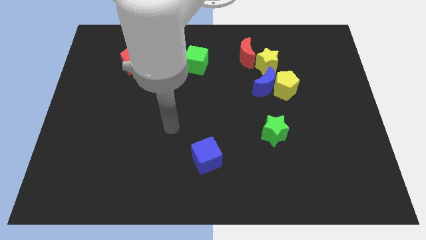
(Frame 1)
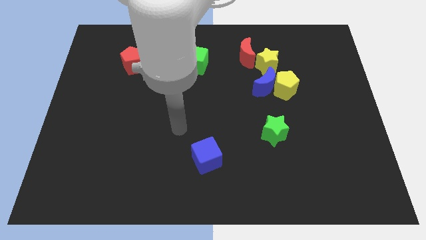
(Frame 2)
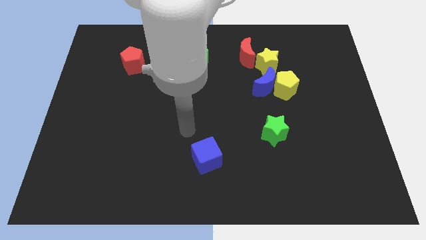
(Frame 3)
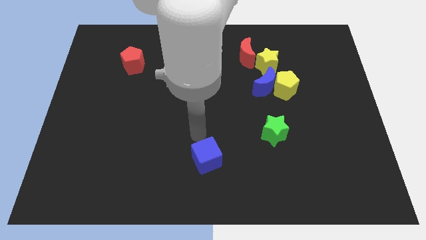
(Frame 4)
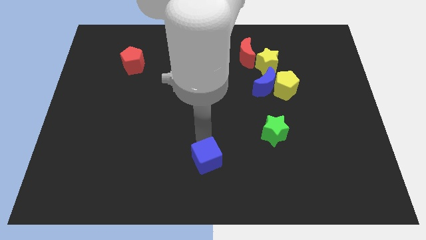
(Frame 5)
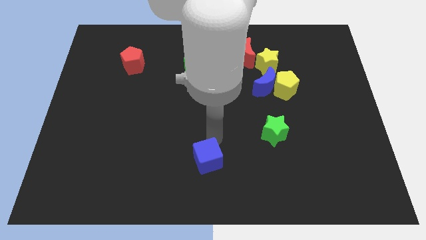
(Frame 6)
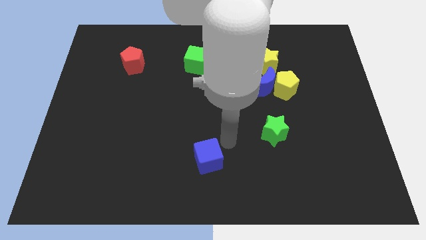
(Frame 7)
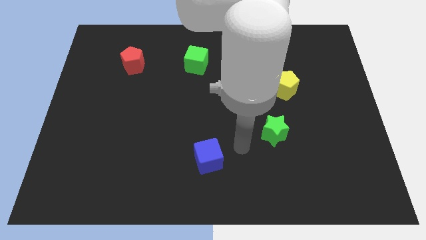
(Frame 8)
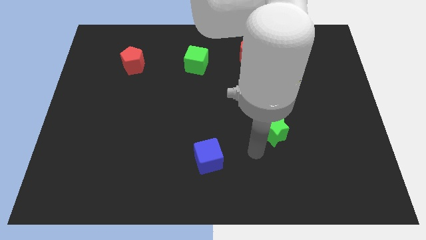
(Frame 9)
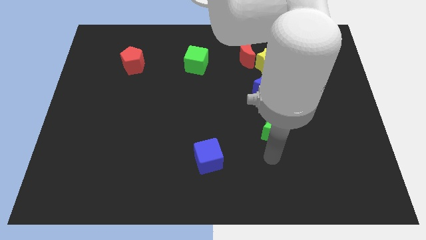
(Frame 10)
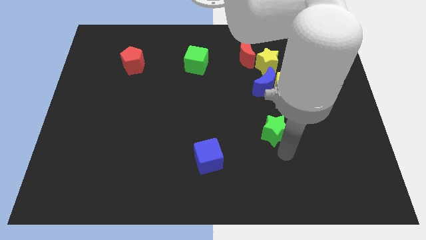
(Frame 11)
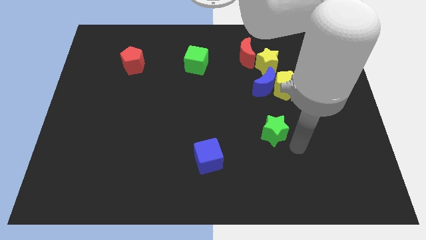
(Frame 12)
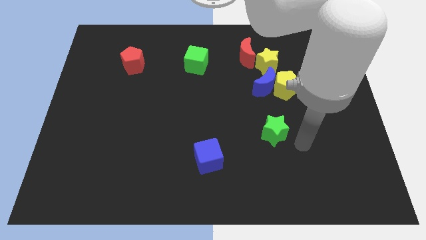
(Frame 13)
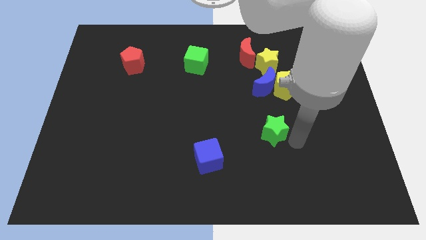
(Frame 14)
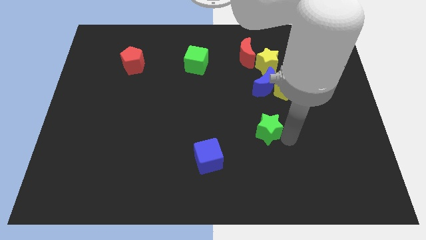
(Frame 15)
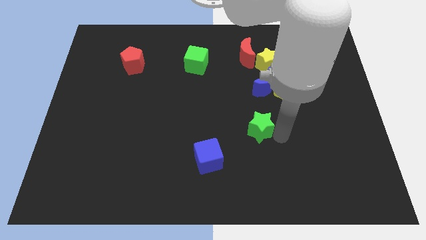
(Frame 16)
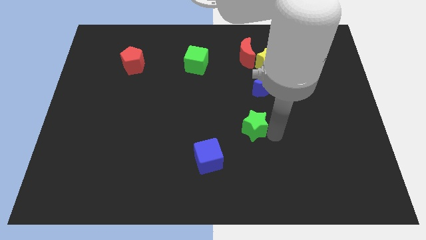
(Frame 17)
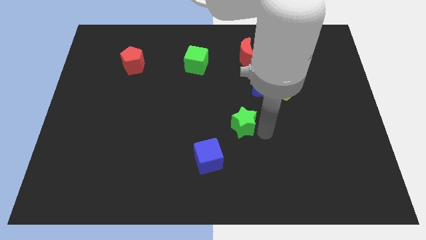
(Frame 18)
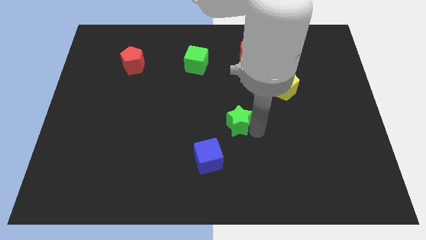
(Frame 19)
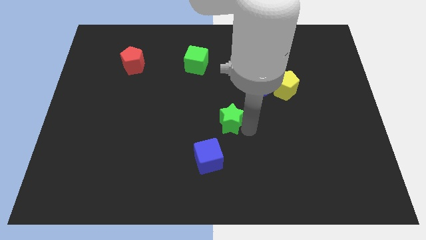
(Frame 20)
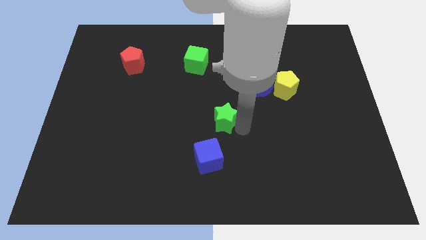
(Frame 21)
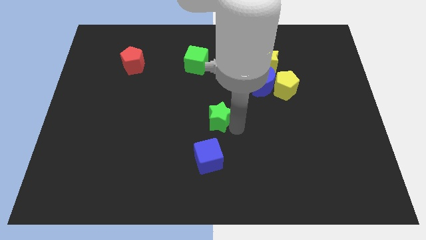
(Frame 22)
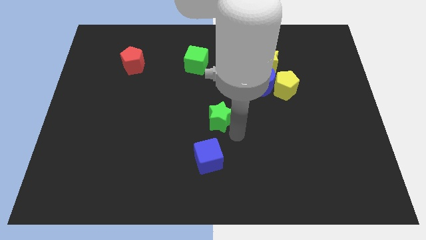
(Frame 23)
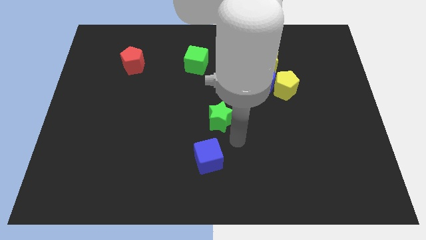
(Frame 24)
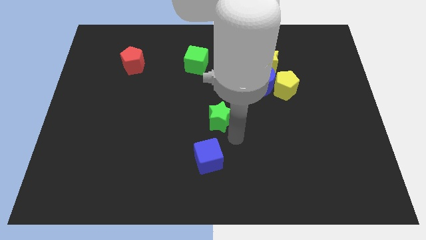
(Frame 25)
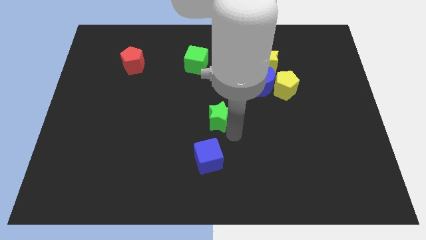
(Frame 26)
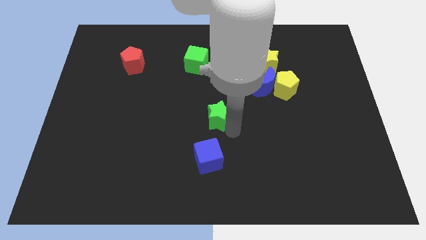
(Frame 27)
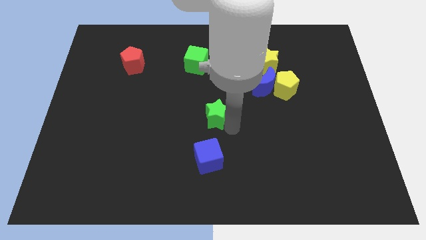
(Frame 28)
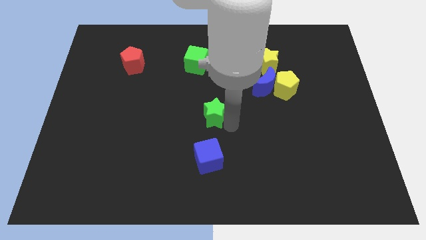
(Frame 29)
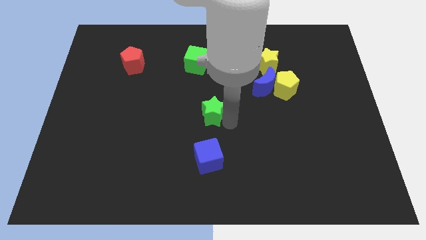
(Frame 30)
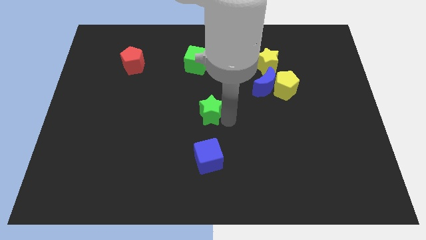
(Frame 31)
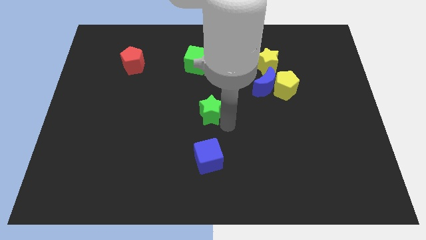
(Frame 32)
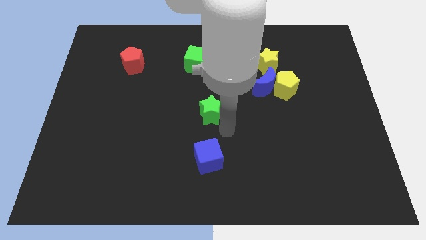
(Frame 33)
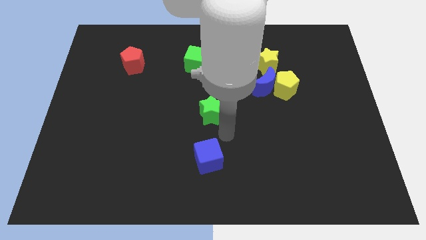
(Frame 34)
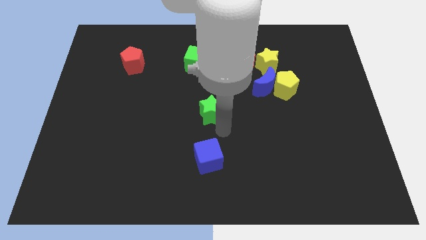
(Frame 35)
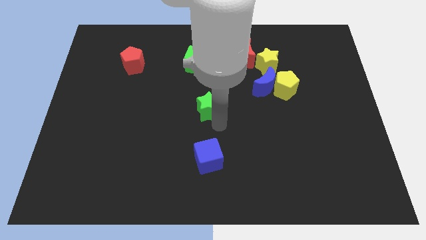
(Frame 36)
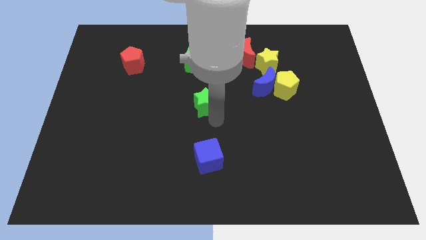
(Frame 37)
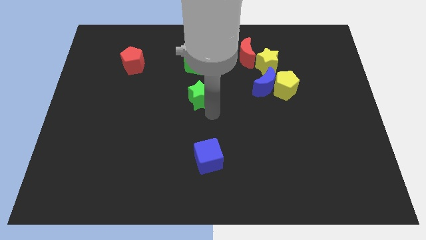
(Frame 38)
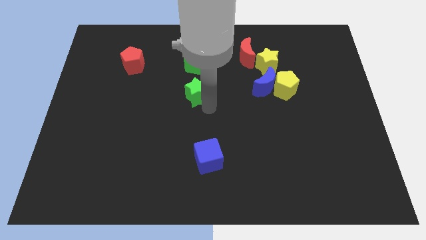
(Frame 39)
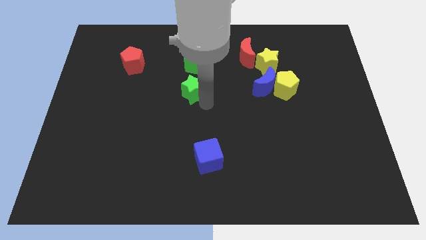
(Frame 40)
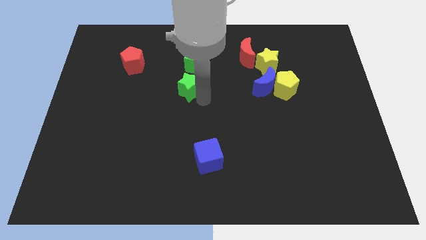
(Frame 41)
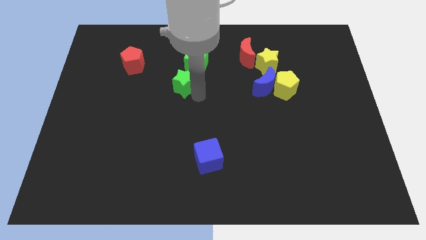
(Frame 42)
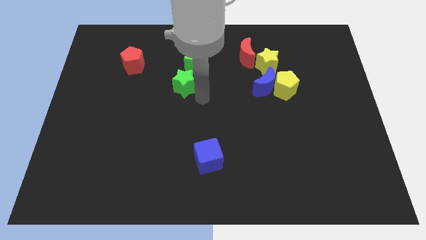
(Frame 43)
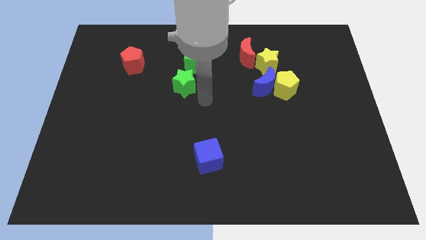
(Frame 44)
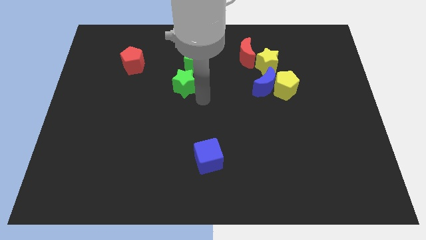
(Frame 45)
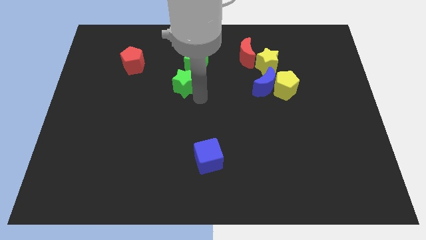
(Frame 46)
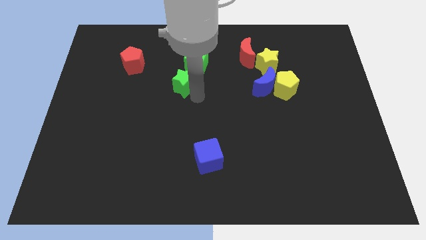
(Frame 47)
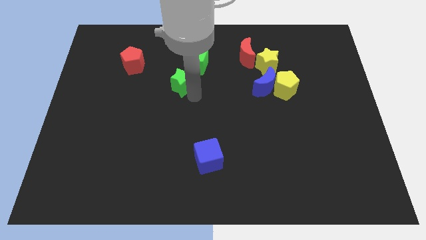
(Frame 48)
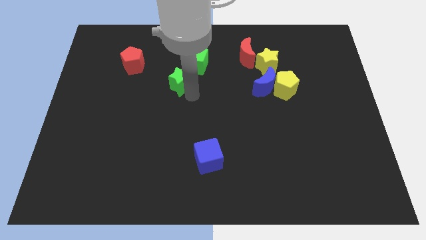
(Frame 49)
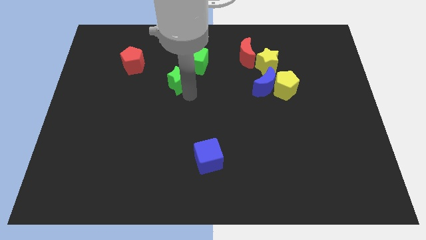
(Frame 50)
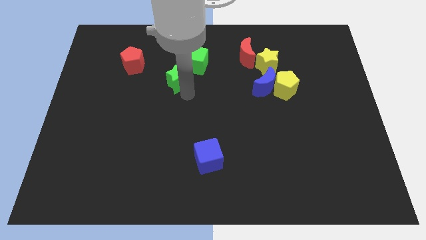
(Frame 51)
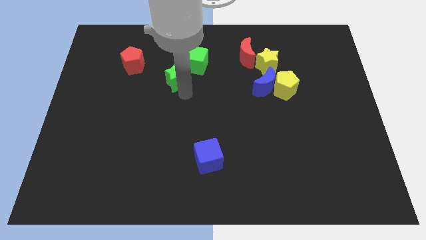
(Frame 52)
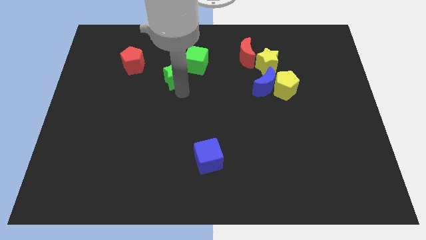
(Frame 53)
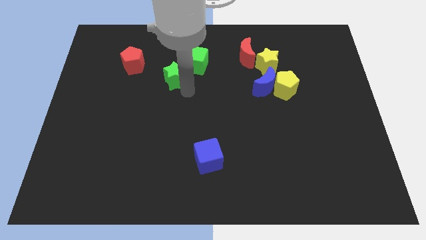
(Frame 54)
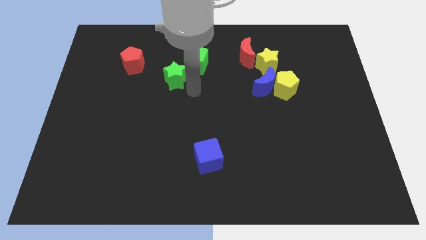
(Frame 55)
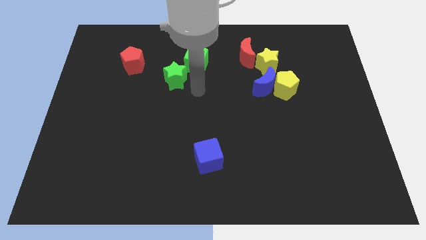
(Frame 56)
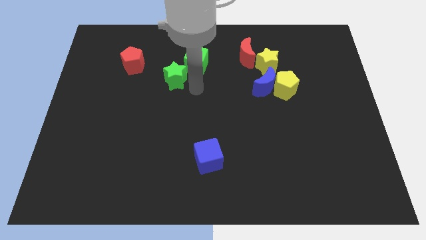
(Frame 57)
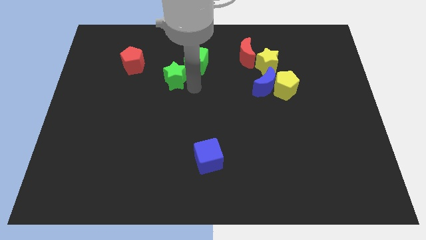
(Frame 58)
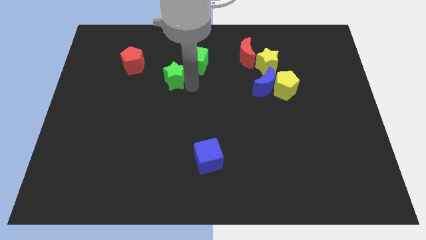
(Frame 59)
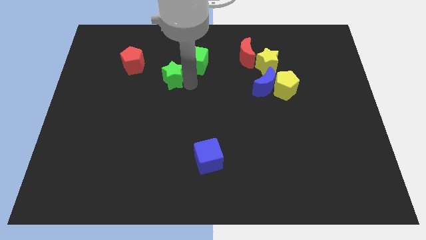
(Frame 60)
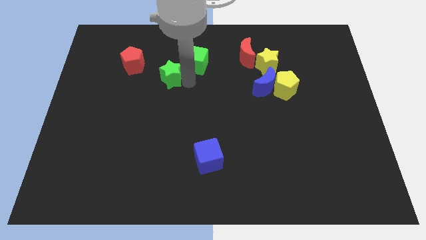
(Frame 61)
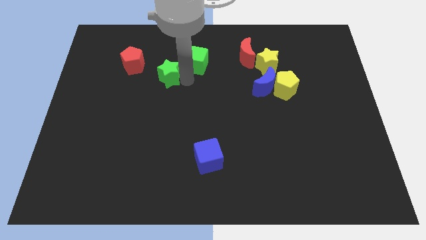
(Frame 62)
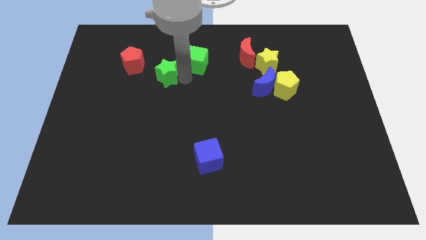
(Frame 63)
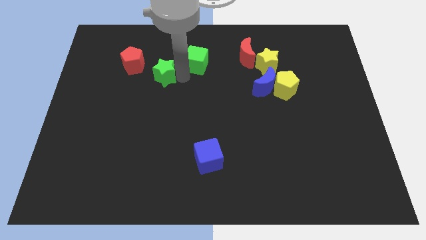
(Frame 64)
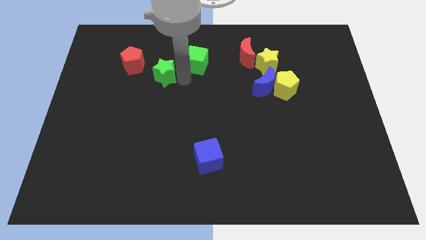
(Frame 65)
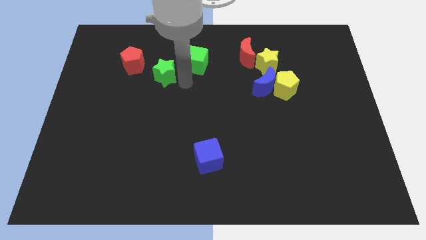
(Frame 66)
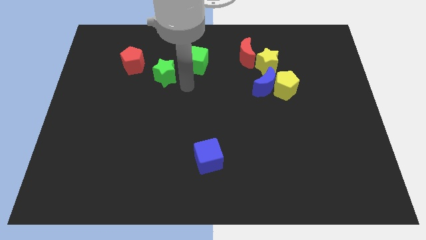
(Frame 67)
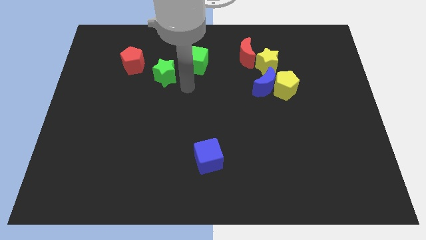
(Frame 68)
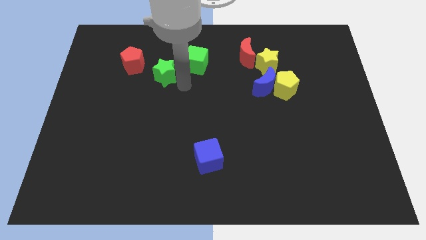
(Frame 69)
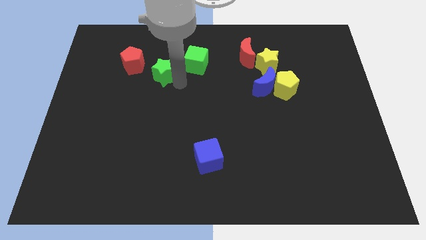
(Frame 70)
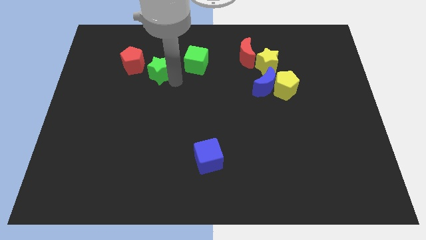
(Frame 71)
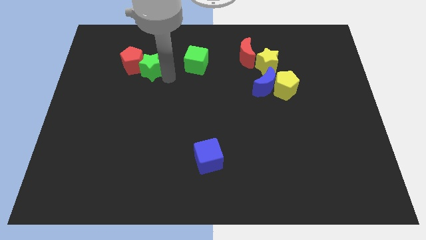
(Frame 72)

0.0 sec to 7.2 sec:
put the green star close to the red pentagon
